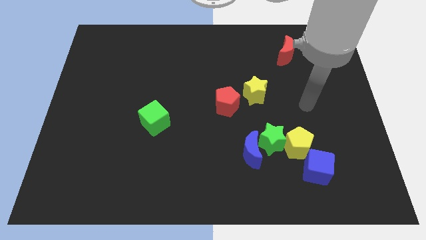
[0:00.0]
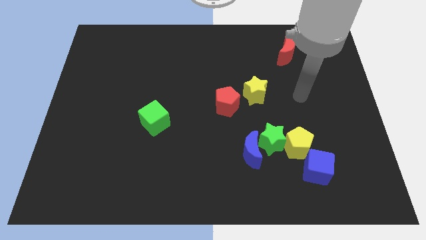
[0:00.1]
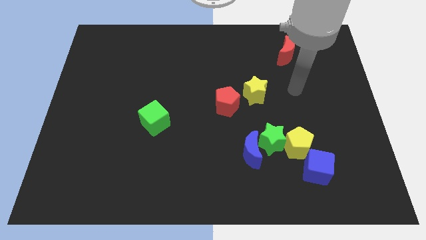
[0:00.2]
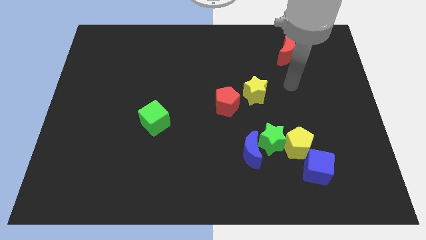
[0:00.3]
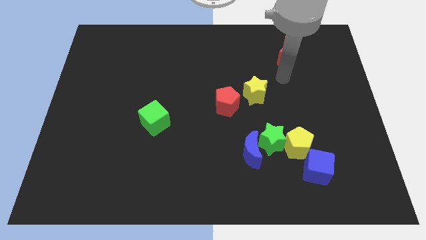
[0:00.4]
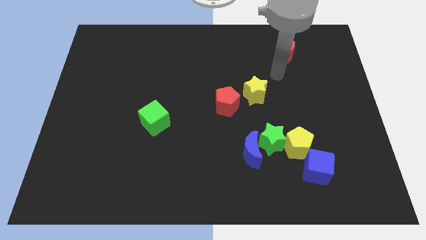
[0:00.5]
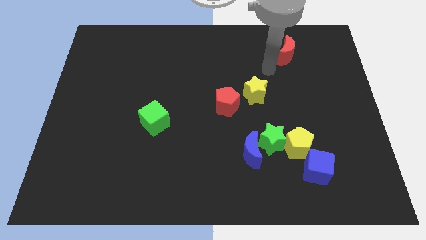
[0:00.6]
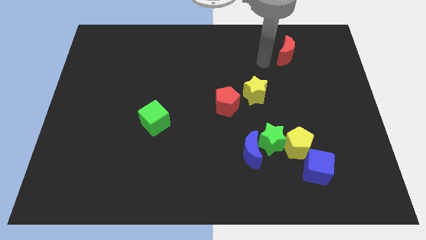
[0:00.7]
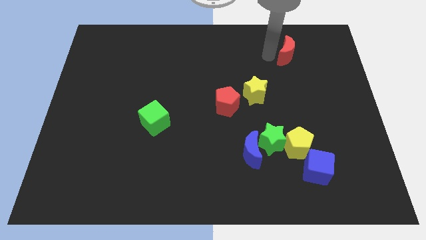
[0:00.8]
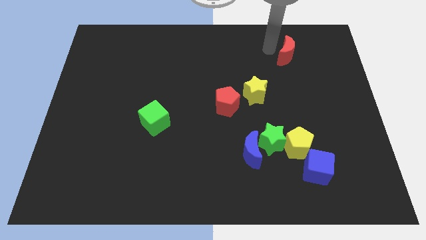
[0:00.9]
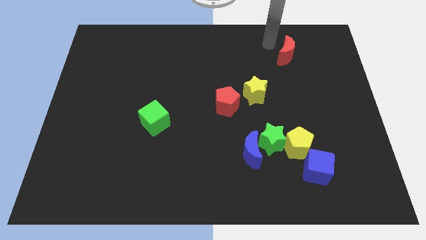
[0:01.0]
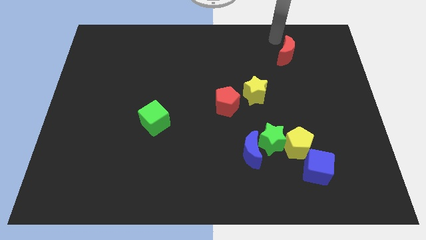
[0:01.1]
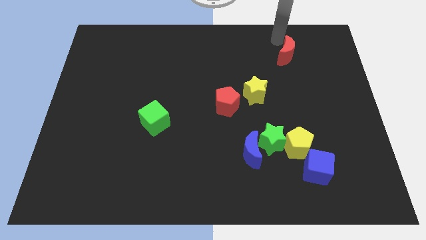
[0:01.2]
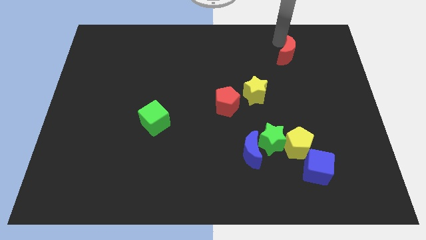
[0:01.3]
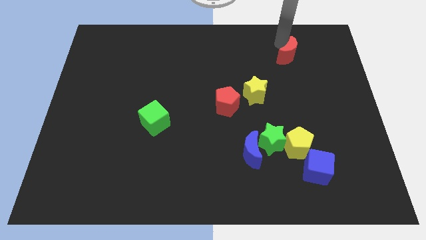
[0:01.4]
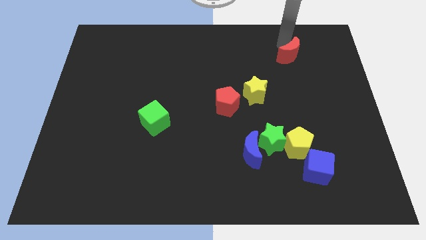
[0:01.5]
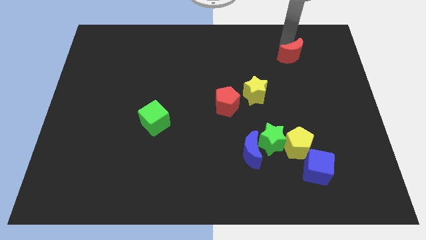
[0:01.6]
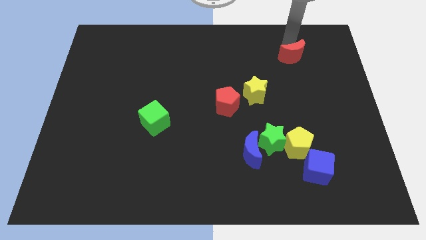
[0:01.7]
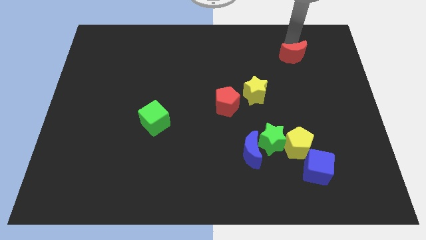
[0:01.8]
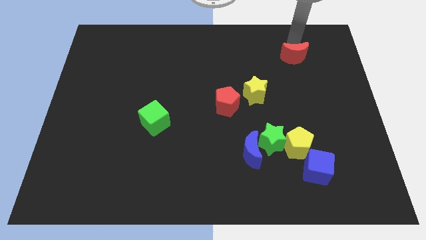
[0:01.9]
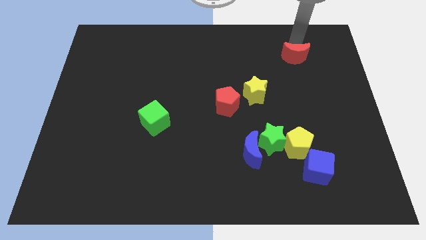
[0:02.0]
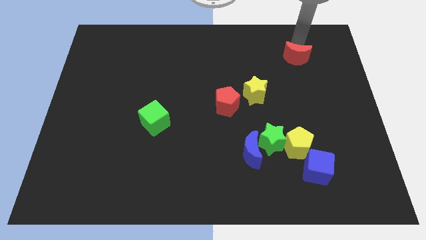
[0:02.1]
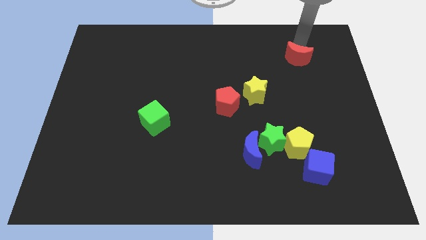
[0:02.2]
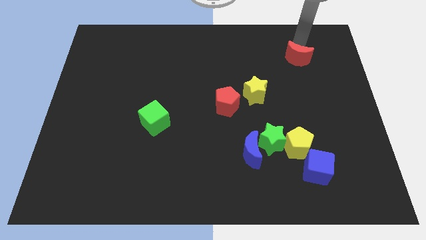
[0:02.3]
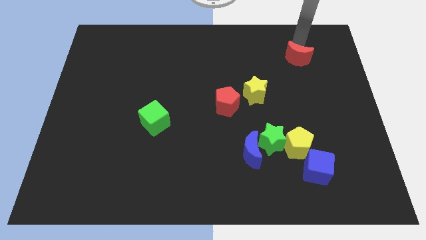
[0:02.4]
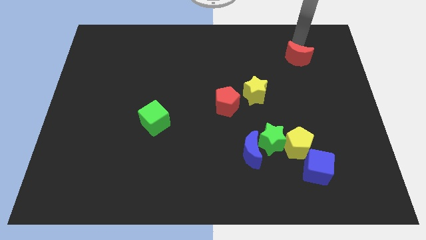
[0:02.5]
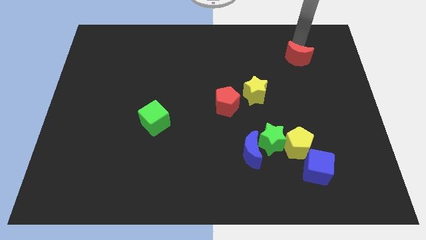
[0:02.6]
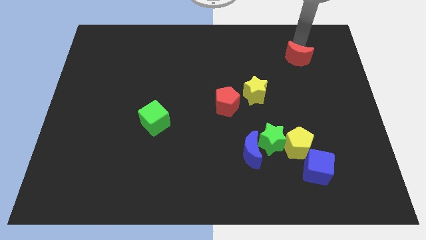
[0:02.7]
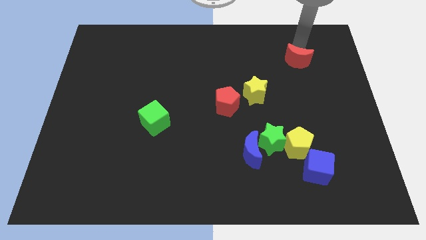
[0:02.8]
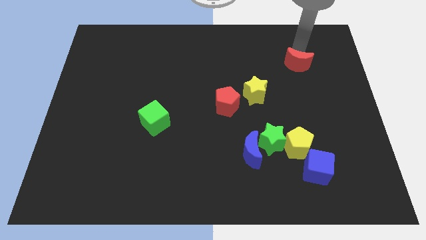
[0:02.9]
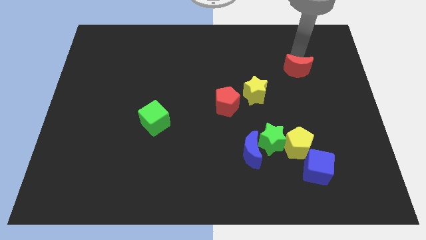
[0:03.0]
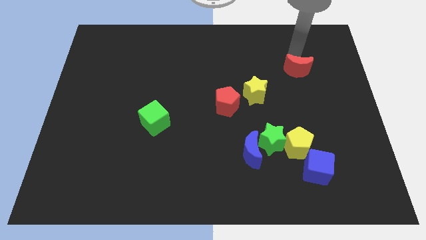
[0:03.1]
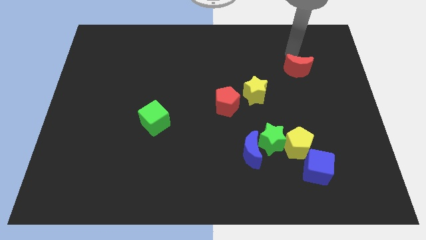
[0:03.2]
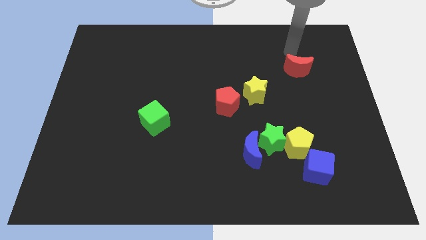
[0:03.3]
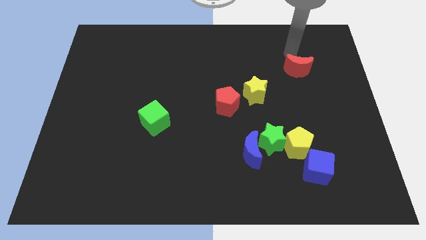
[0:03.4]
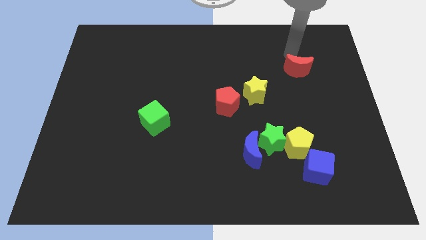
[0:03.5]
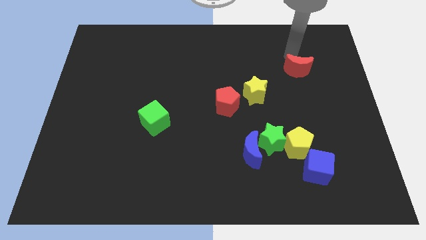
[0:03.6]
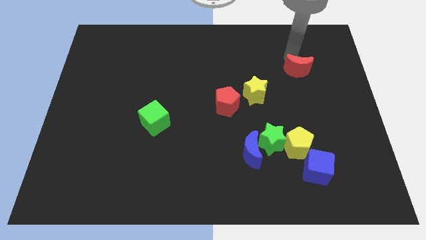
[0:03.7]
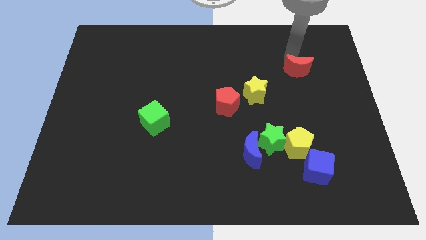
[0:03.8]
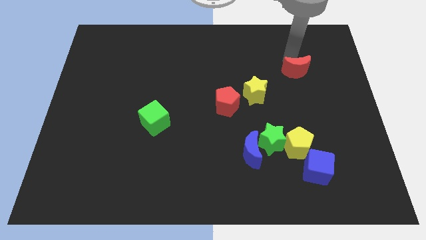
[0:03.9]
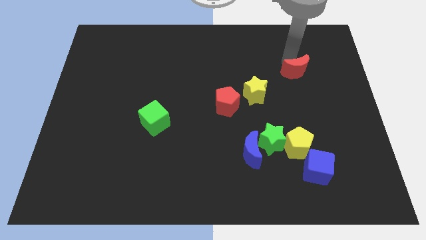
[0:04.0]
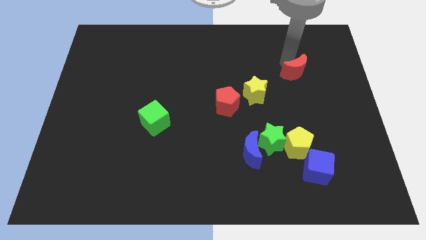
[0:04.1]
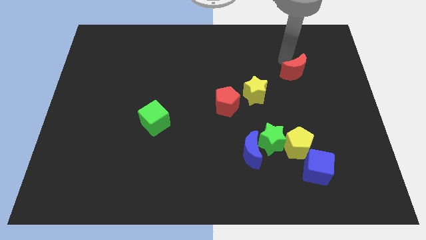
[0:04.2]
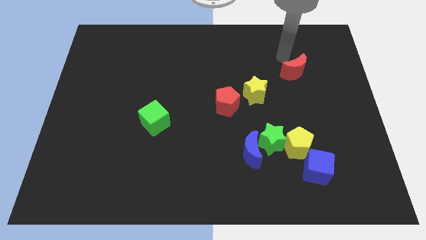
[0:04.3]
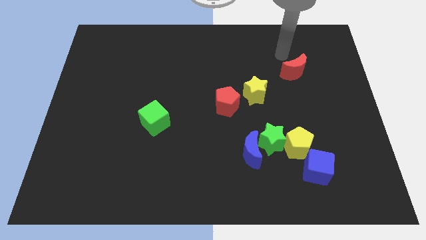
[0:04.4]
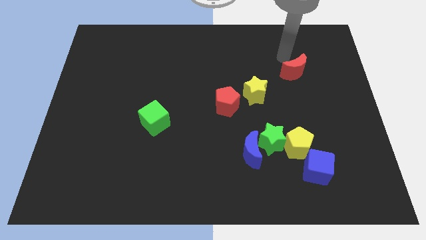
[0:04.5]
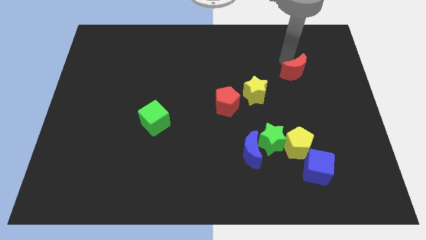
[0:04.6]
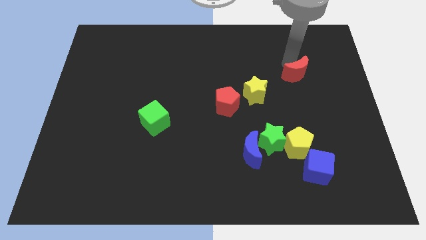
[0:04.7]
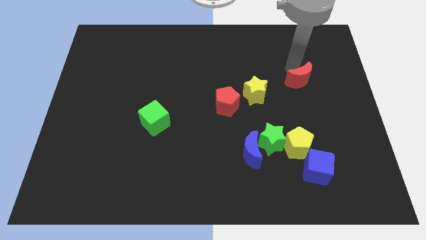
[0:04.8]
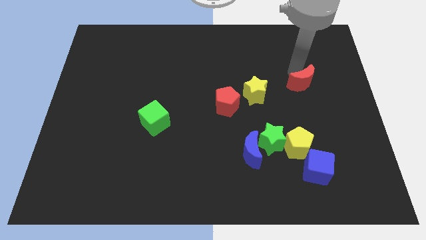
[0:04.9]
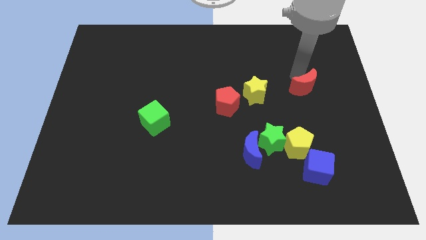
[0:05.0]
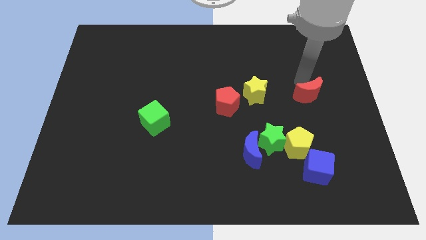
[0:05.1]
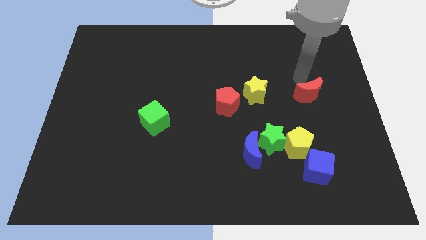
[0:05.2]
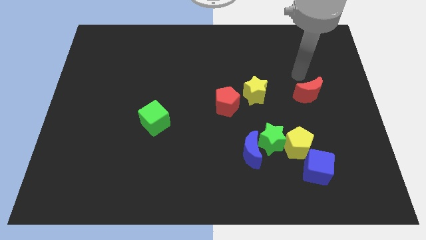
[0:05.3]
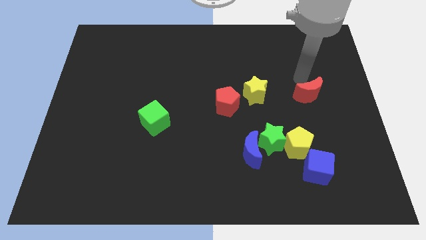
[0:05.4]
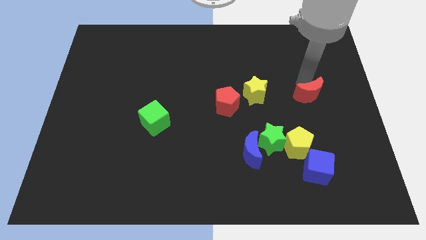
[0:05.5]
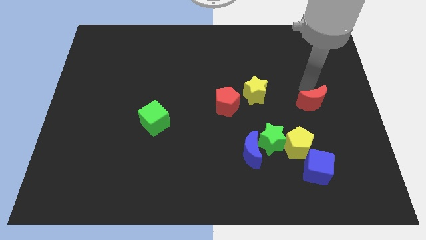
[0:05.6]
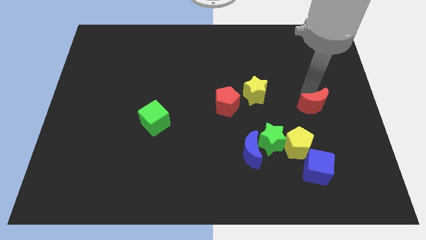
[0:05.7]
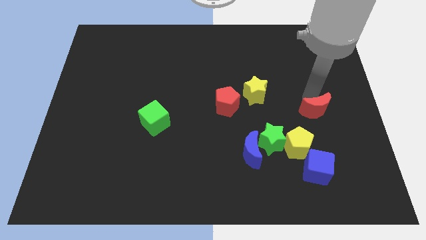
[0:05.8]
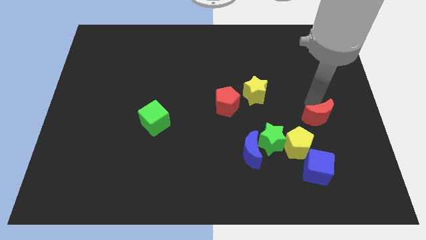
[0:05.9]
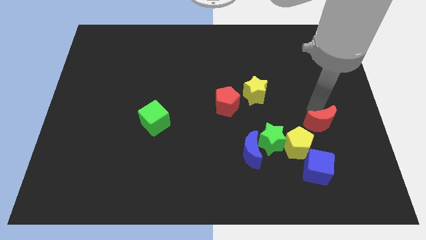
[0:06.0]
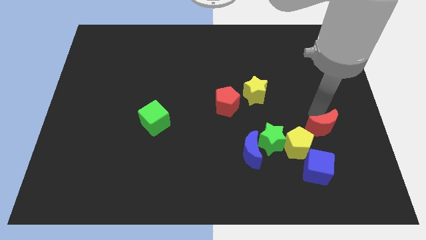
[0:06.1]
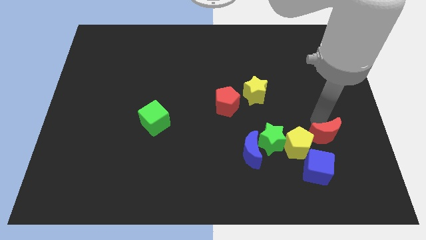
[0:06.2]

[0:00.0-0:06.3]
slide the red moon to the top right side of the blue cube

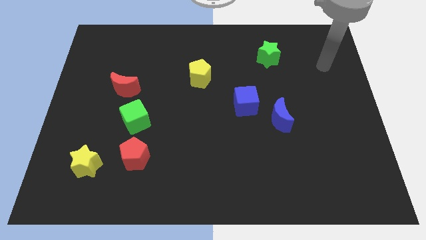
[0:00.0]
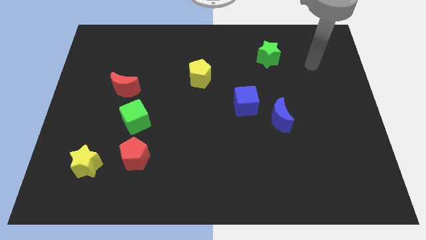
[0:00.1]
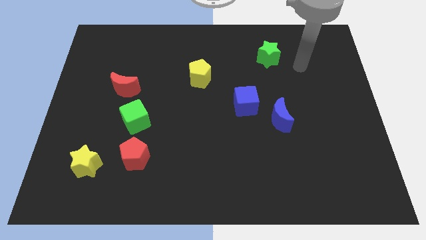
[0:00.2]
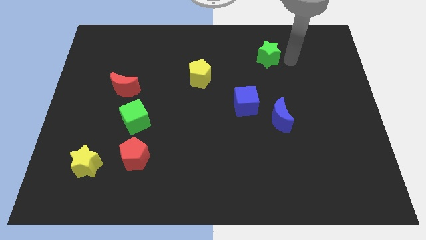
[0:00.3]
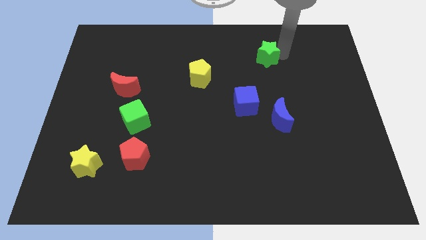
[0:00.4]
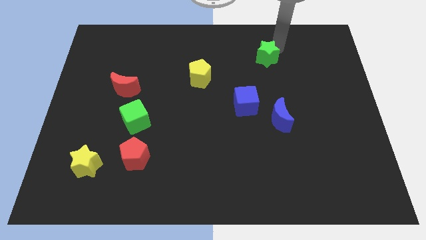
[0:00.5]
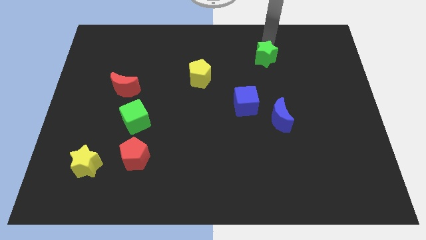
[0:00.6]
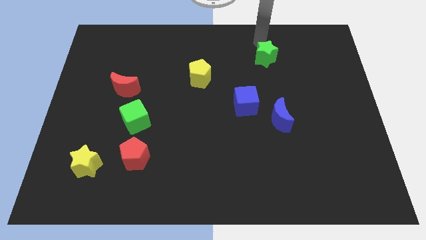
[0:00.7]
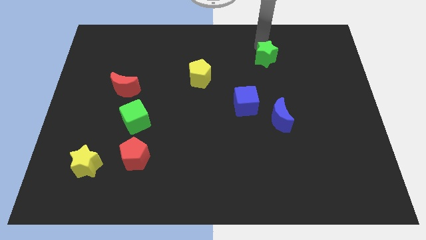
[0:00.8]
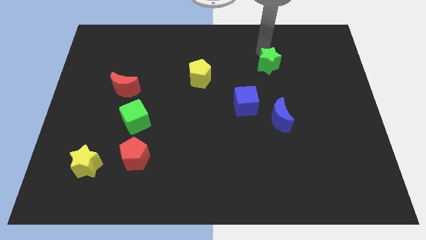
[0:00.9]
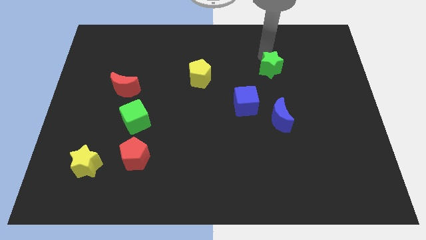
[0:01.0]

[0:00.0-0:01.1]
move the green star to the top of the blue moon

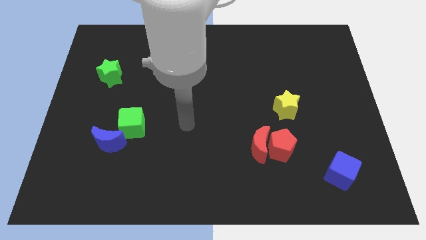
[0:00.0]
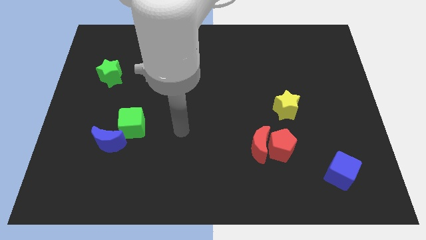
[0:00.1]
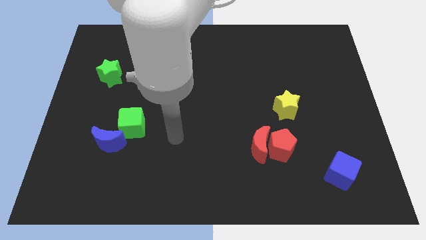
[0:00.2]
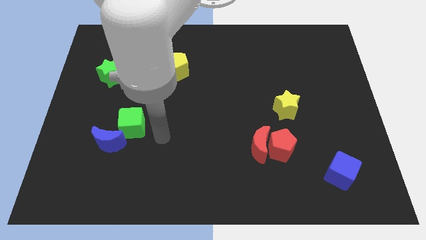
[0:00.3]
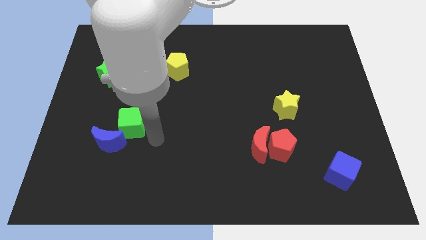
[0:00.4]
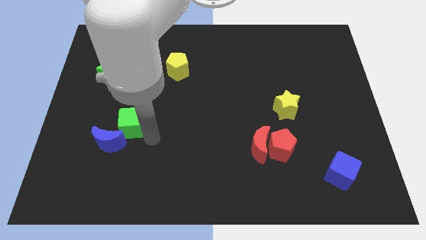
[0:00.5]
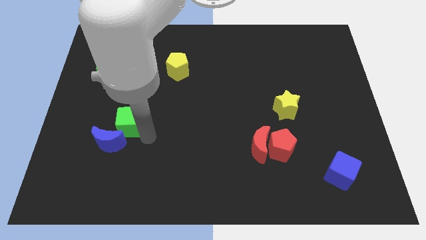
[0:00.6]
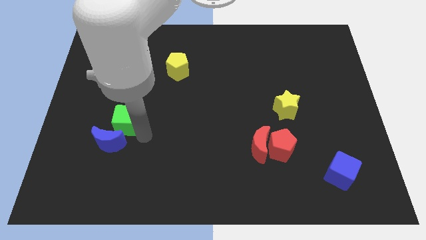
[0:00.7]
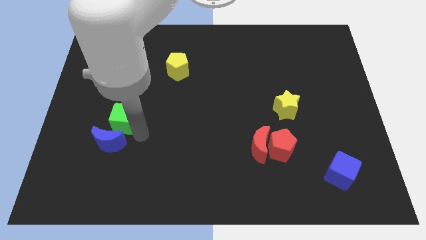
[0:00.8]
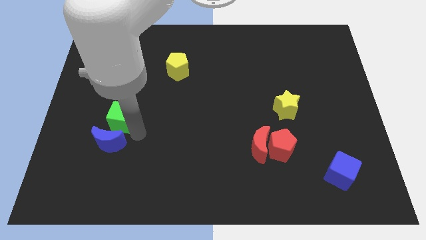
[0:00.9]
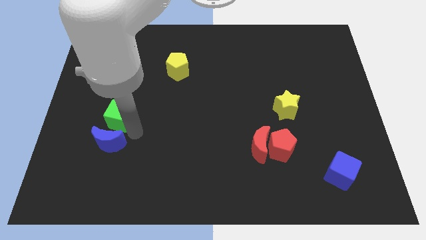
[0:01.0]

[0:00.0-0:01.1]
slide the green cube below the green star

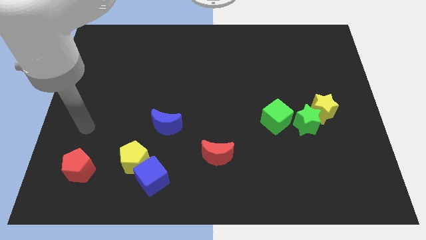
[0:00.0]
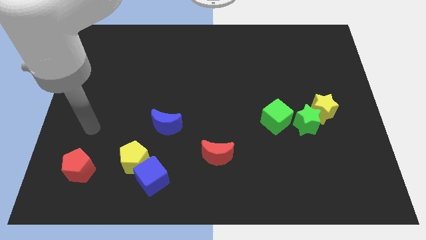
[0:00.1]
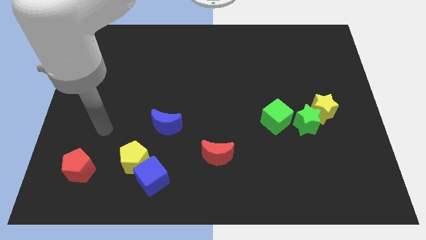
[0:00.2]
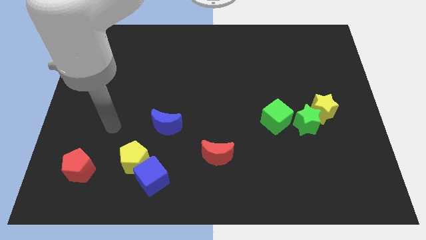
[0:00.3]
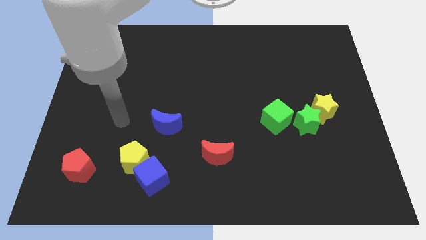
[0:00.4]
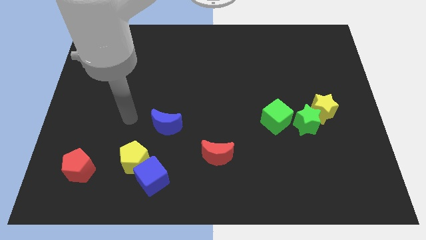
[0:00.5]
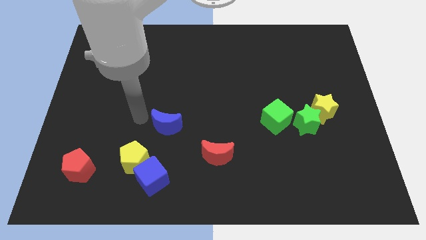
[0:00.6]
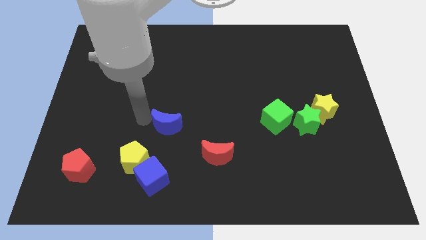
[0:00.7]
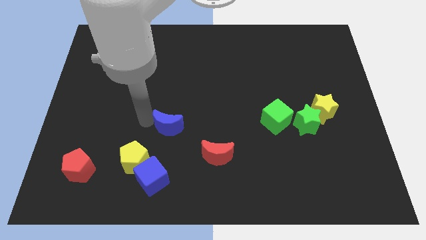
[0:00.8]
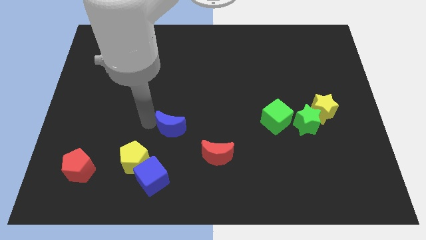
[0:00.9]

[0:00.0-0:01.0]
slide the blue moon diagonally up and to the left of the red moon
